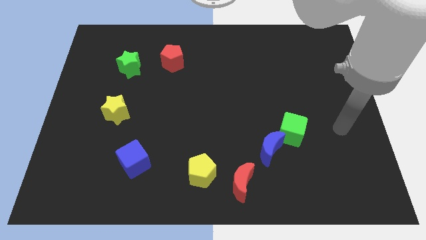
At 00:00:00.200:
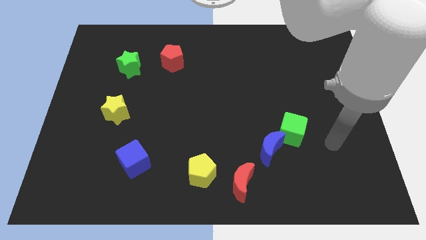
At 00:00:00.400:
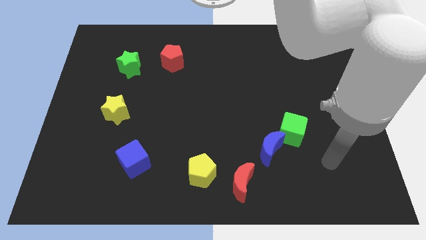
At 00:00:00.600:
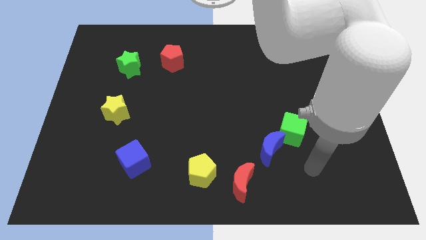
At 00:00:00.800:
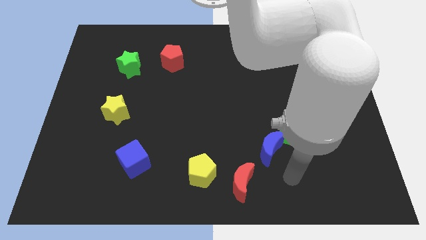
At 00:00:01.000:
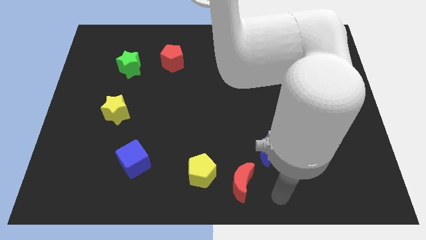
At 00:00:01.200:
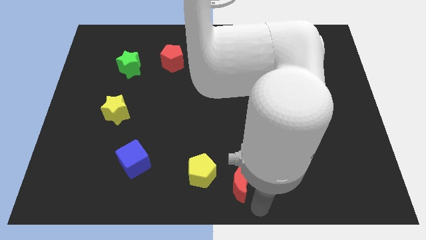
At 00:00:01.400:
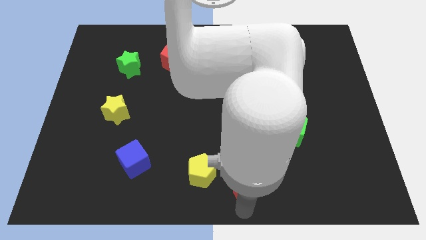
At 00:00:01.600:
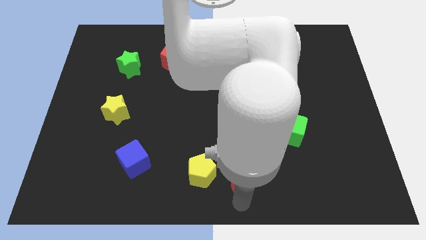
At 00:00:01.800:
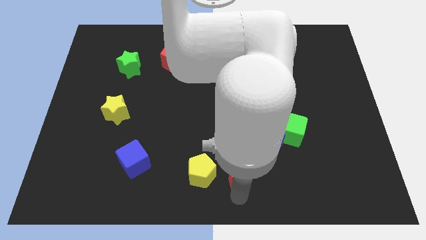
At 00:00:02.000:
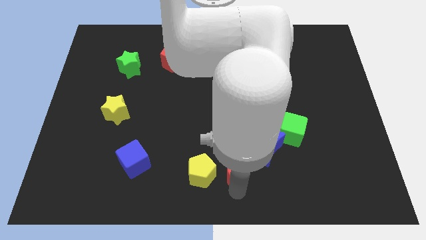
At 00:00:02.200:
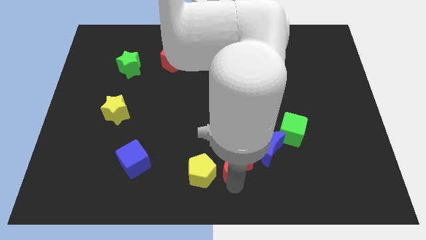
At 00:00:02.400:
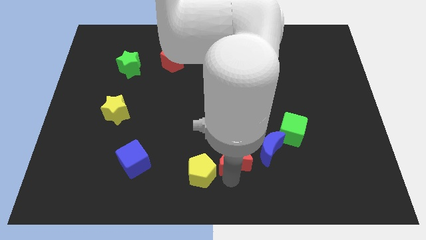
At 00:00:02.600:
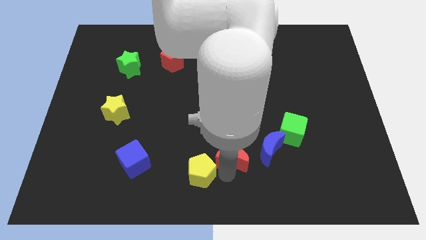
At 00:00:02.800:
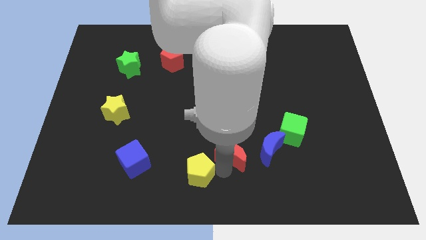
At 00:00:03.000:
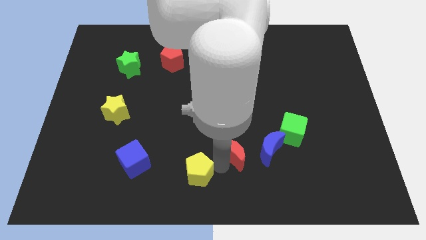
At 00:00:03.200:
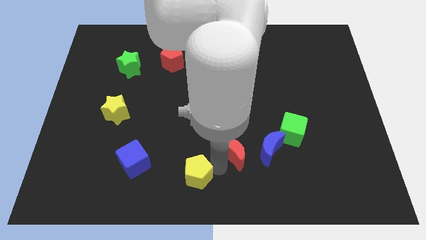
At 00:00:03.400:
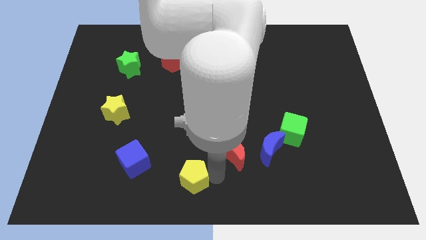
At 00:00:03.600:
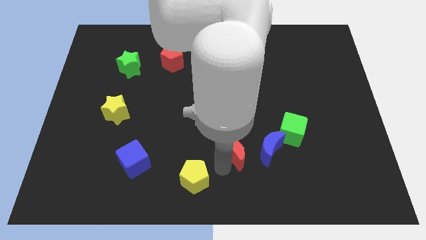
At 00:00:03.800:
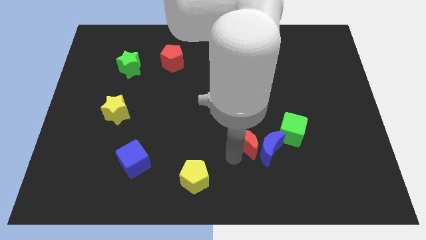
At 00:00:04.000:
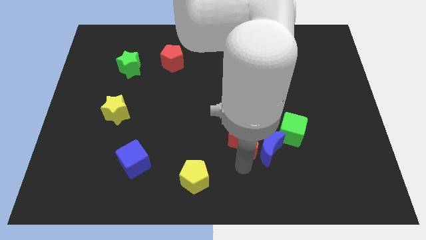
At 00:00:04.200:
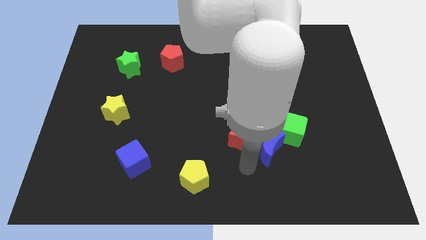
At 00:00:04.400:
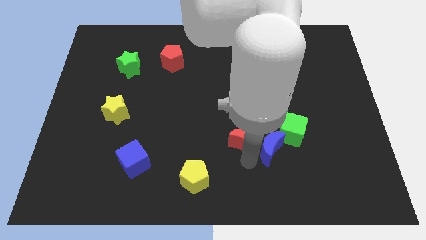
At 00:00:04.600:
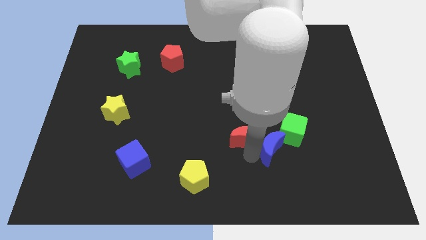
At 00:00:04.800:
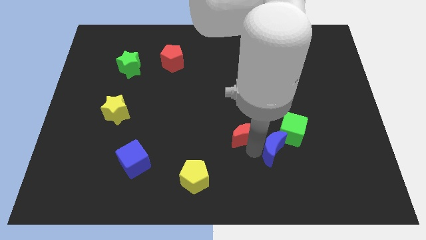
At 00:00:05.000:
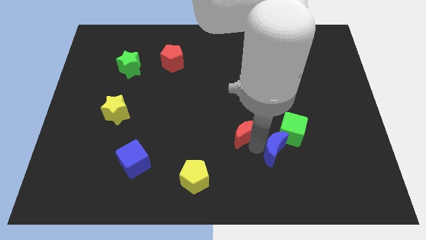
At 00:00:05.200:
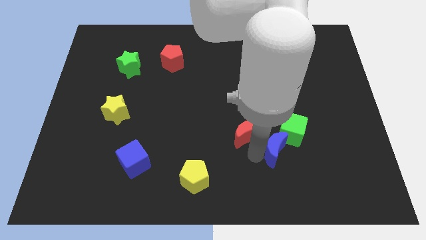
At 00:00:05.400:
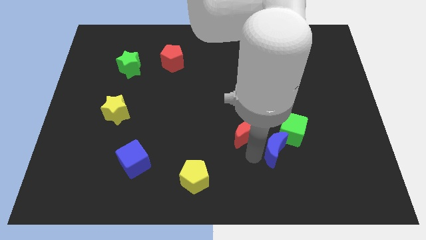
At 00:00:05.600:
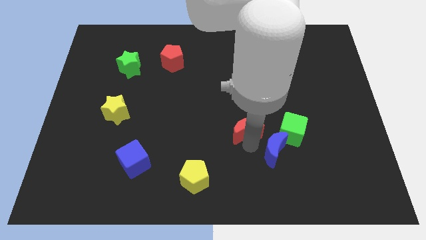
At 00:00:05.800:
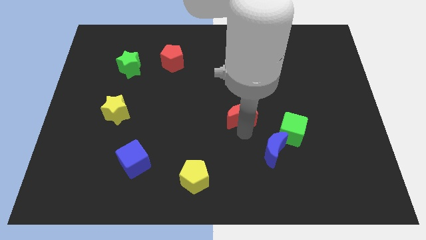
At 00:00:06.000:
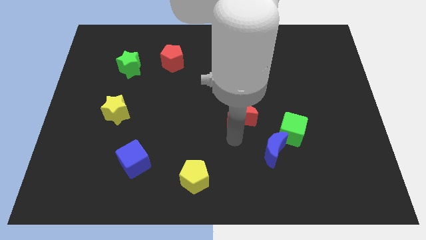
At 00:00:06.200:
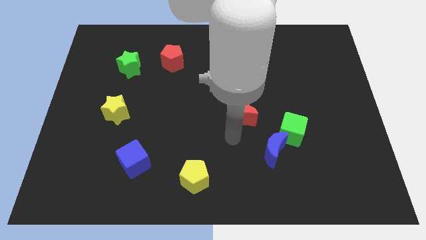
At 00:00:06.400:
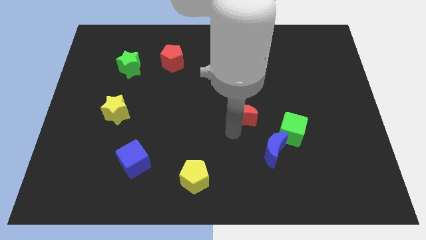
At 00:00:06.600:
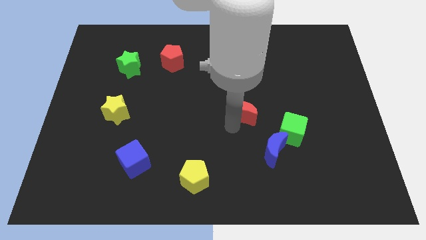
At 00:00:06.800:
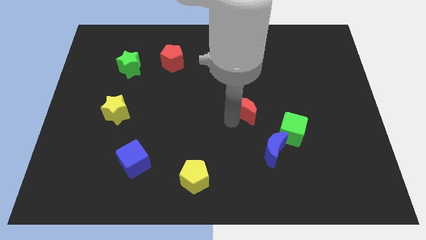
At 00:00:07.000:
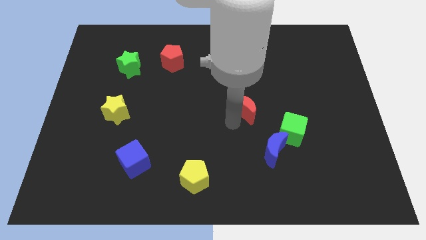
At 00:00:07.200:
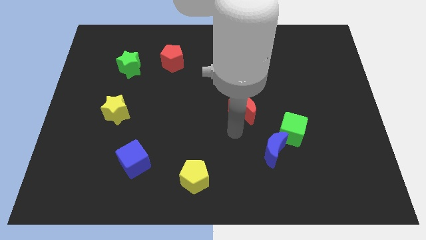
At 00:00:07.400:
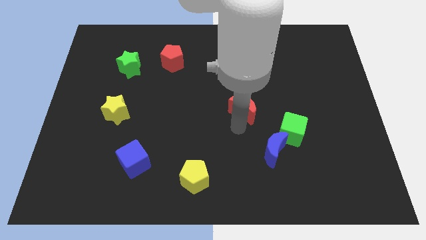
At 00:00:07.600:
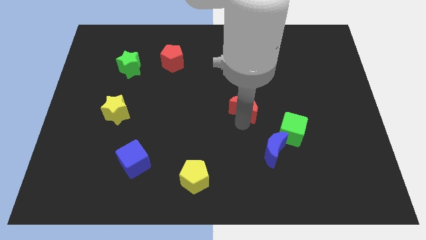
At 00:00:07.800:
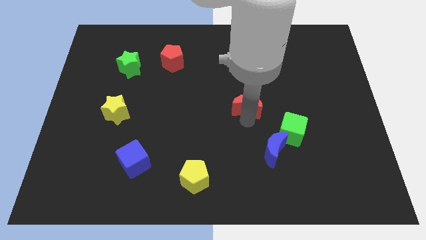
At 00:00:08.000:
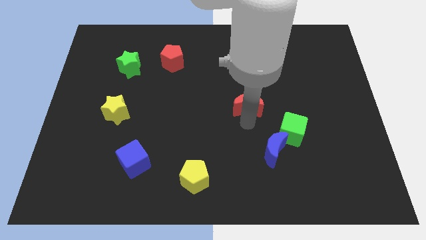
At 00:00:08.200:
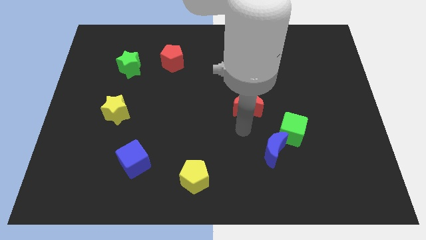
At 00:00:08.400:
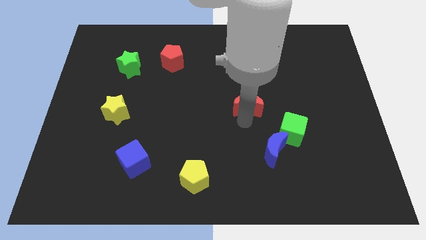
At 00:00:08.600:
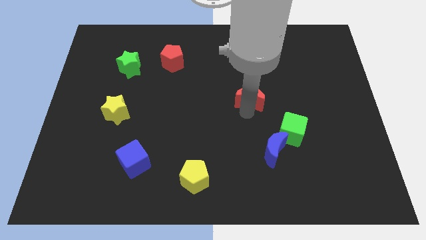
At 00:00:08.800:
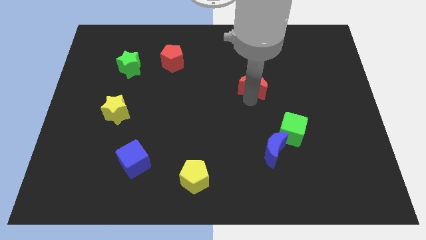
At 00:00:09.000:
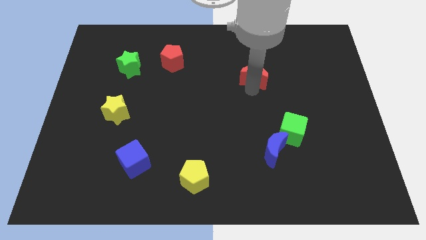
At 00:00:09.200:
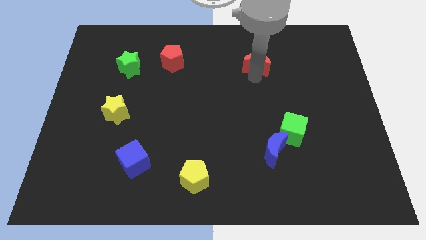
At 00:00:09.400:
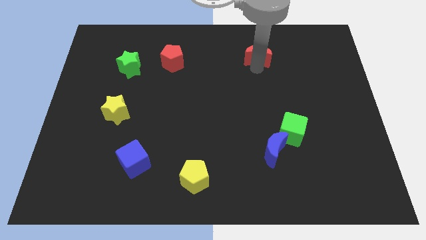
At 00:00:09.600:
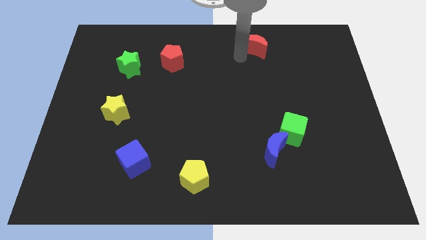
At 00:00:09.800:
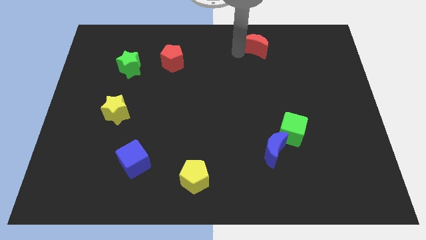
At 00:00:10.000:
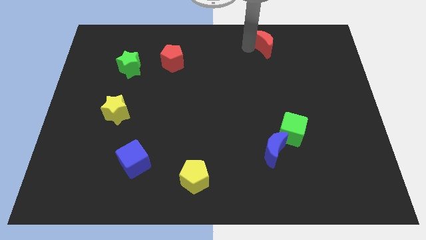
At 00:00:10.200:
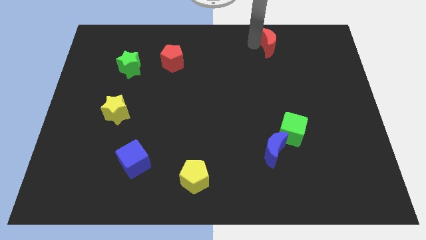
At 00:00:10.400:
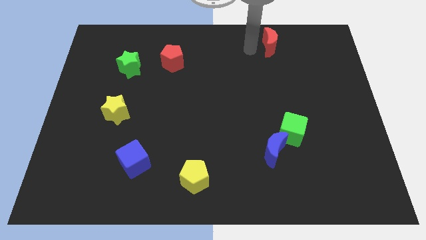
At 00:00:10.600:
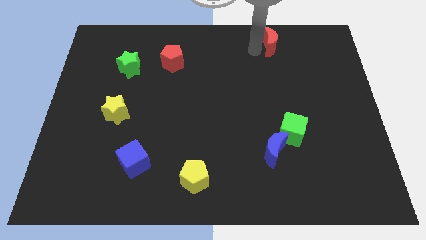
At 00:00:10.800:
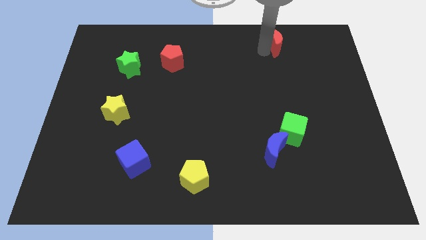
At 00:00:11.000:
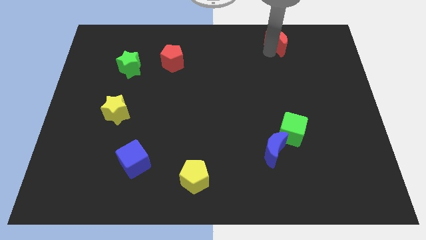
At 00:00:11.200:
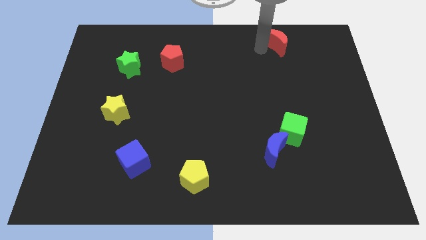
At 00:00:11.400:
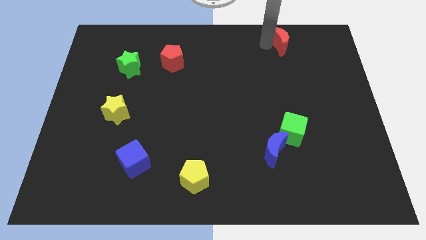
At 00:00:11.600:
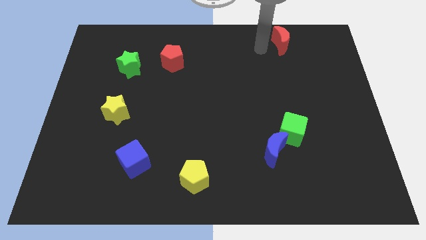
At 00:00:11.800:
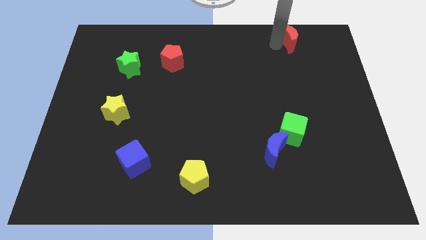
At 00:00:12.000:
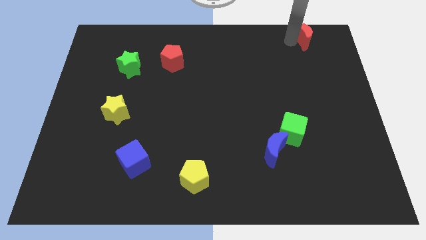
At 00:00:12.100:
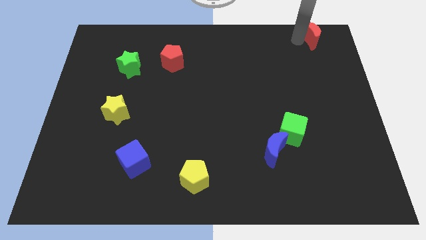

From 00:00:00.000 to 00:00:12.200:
push the red moon to the top right

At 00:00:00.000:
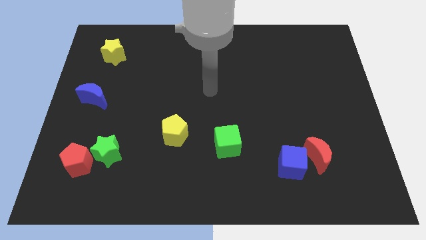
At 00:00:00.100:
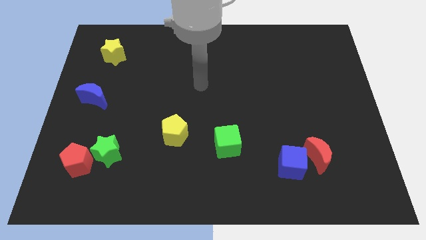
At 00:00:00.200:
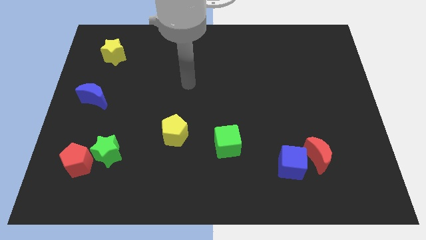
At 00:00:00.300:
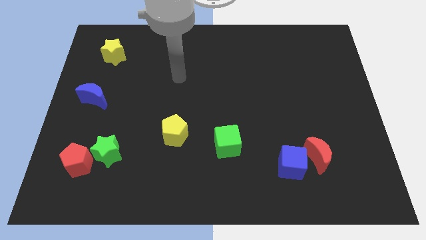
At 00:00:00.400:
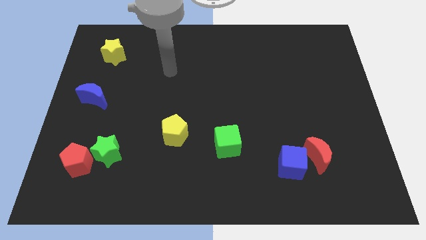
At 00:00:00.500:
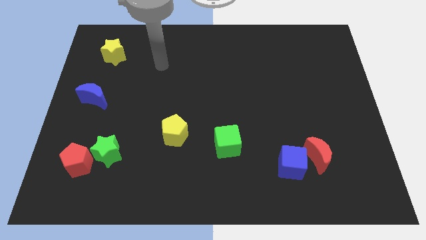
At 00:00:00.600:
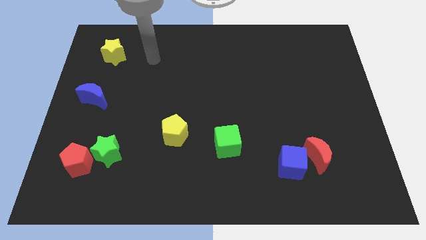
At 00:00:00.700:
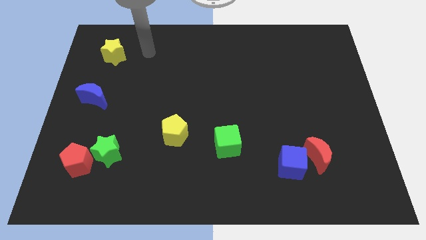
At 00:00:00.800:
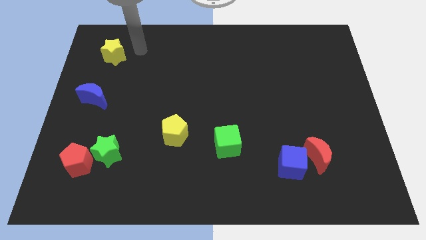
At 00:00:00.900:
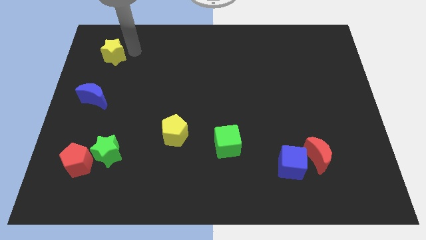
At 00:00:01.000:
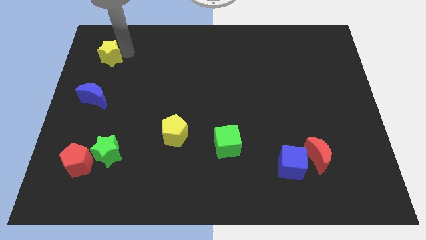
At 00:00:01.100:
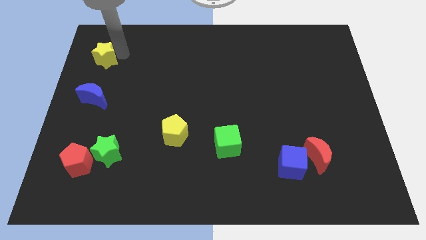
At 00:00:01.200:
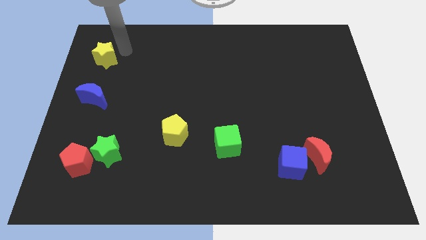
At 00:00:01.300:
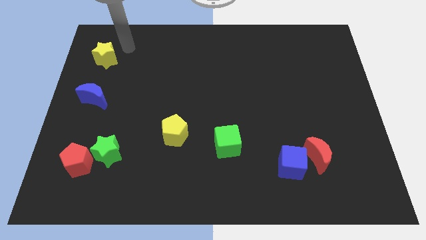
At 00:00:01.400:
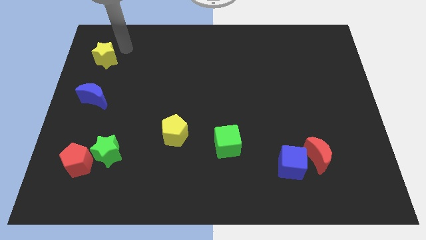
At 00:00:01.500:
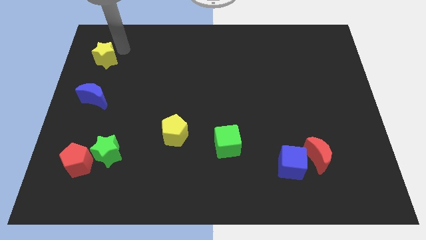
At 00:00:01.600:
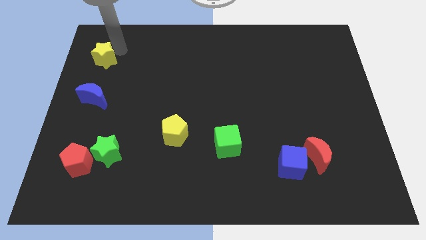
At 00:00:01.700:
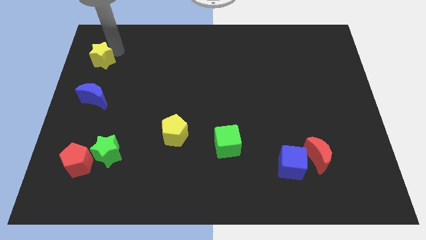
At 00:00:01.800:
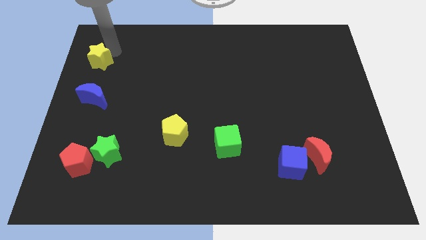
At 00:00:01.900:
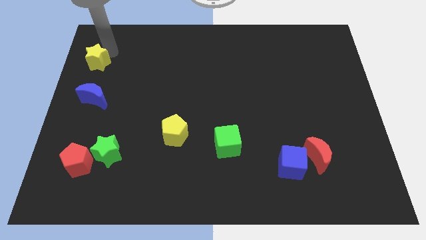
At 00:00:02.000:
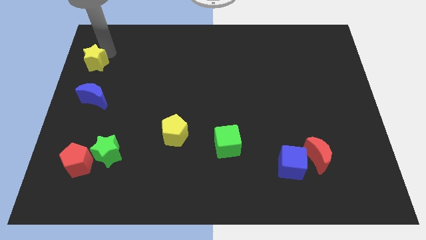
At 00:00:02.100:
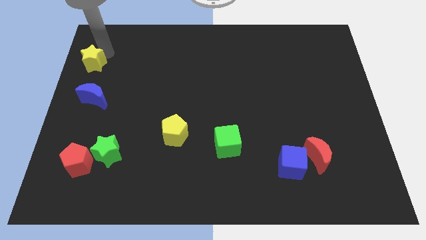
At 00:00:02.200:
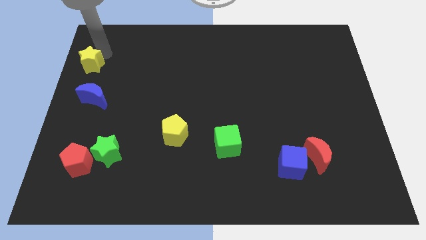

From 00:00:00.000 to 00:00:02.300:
move the yellow star to the center left
